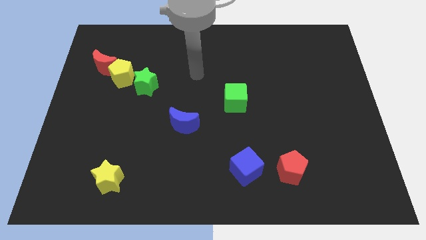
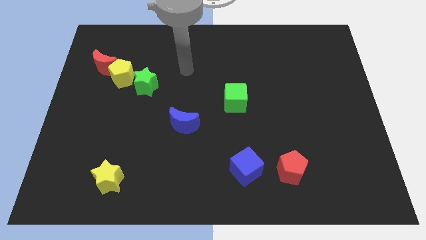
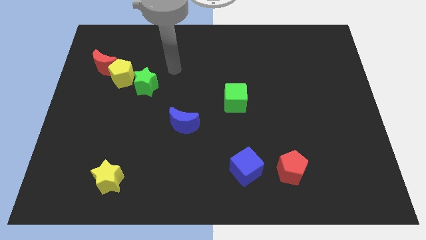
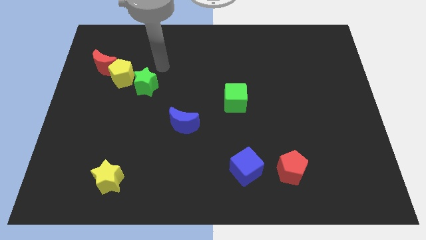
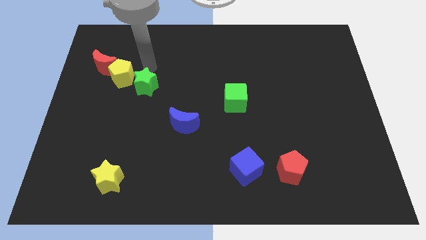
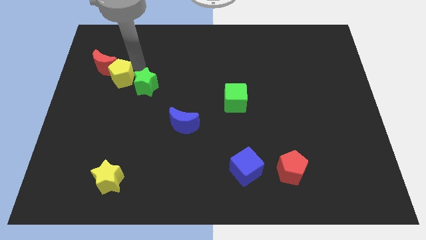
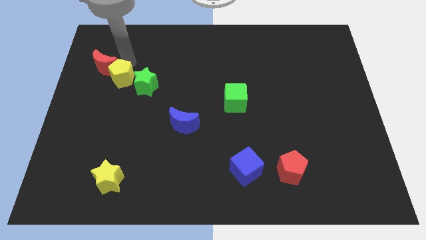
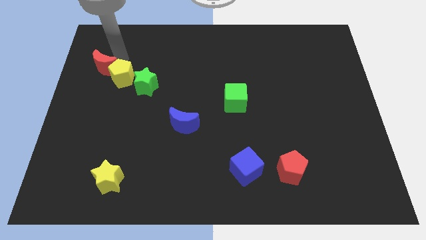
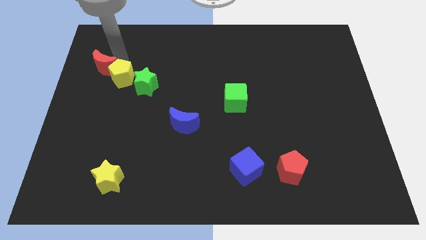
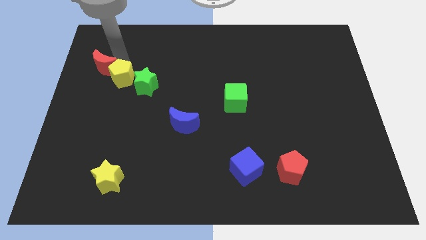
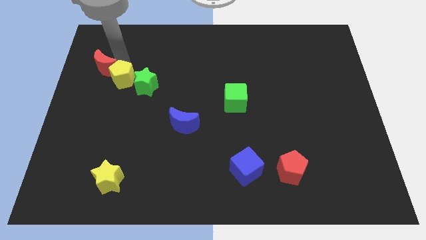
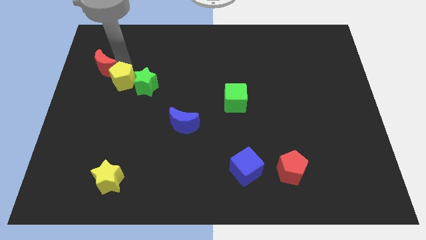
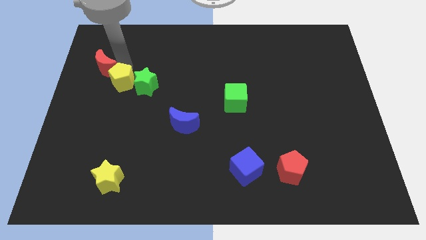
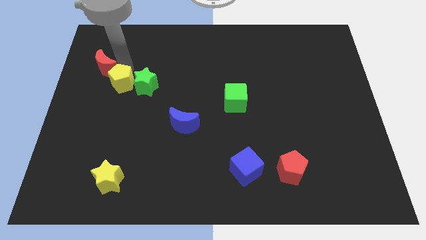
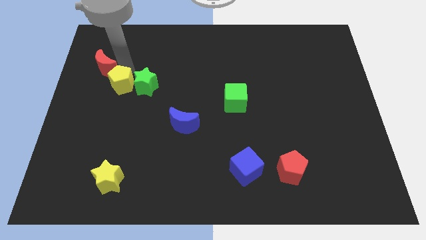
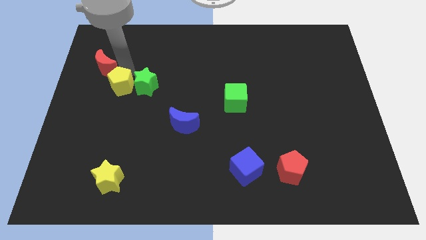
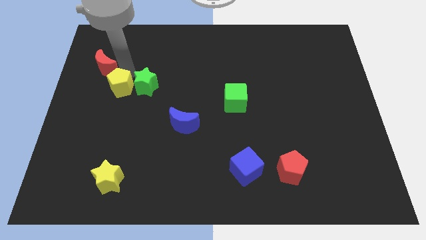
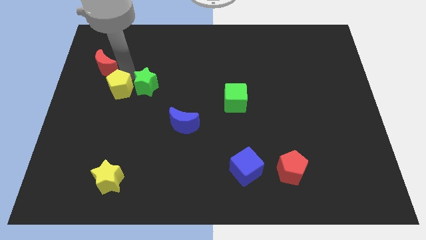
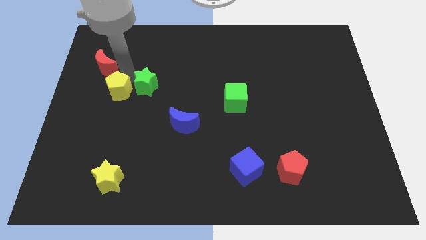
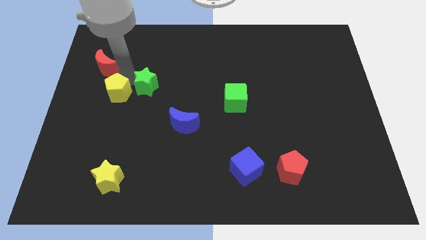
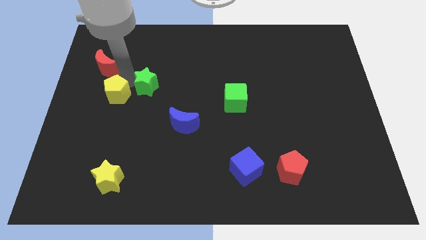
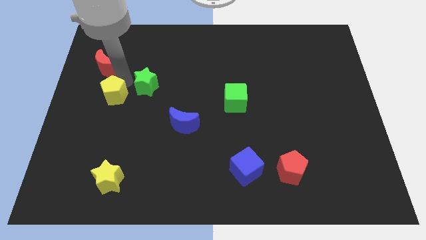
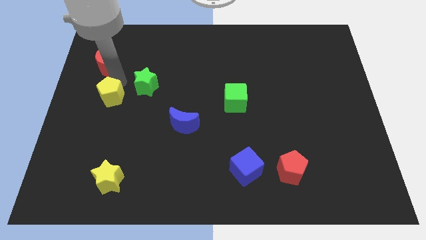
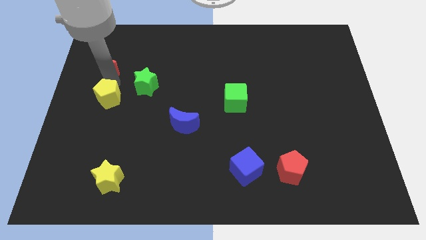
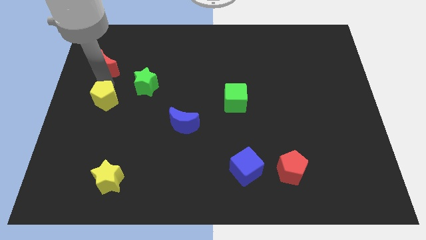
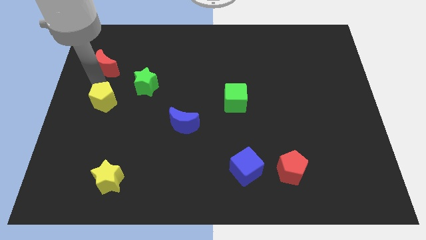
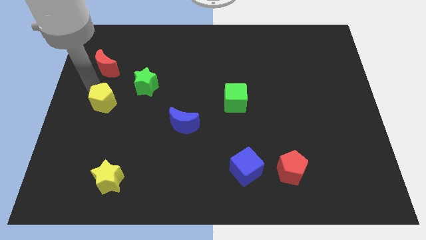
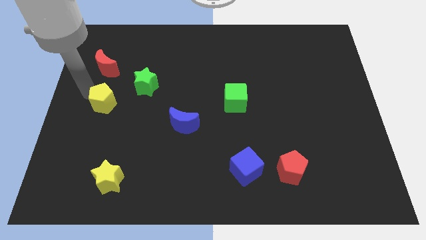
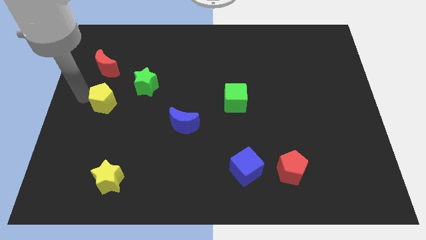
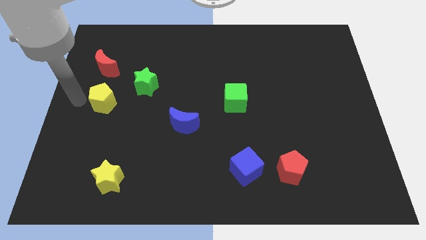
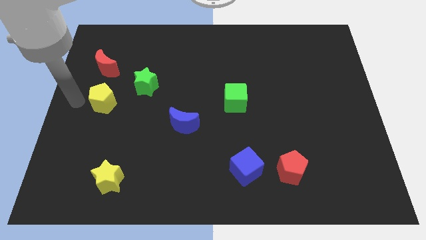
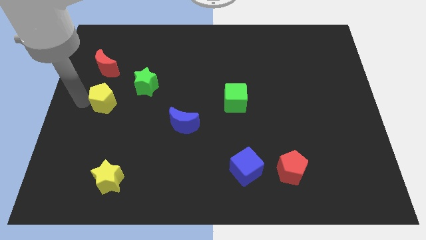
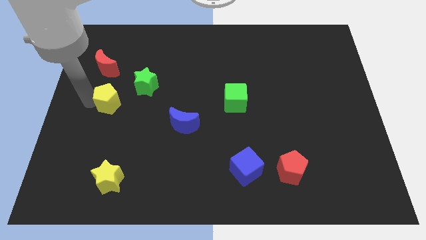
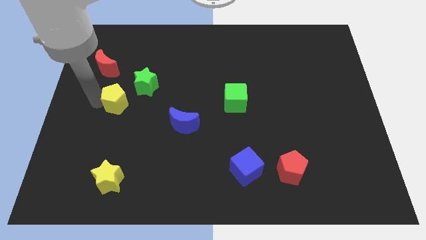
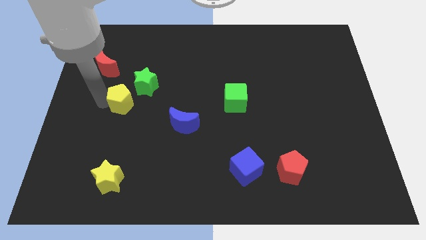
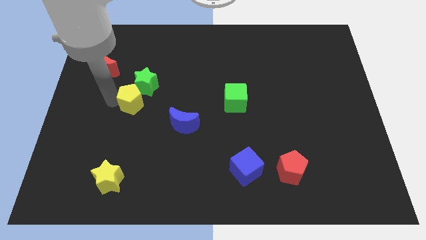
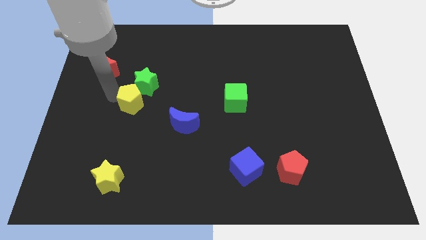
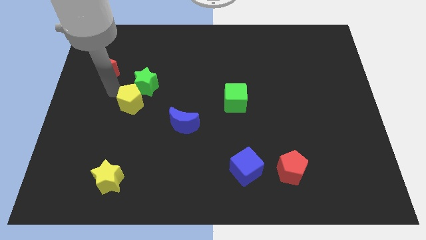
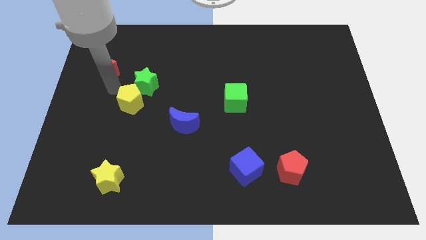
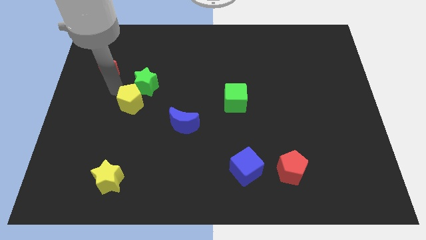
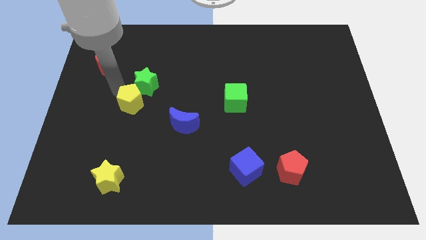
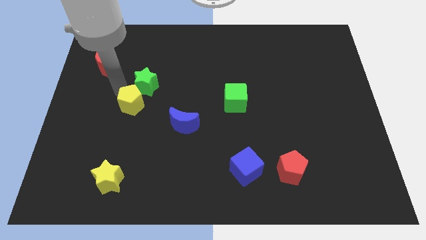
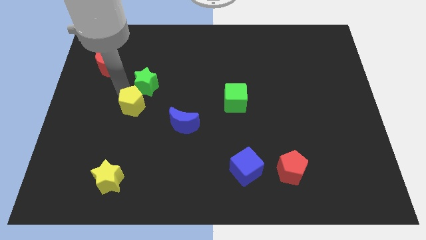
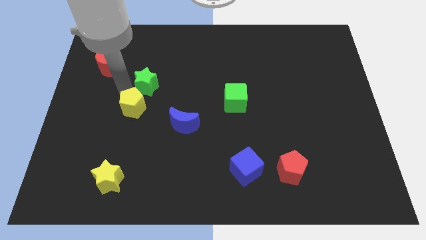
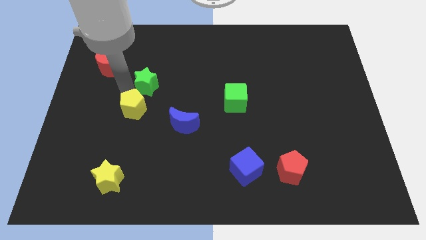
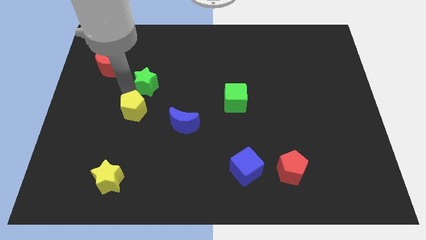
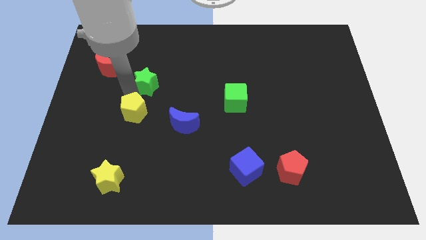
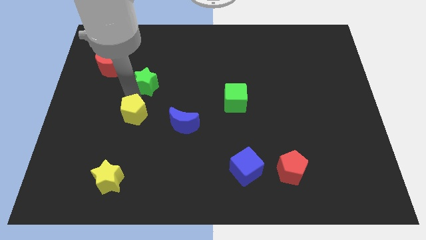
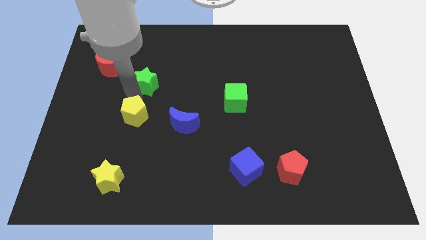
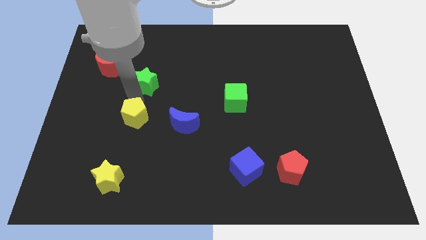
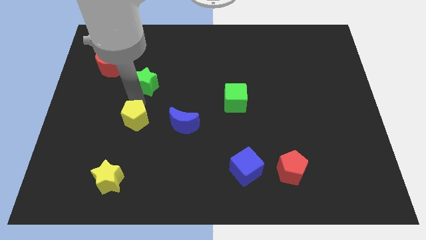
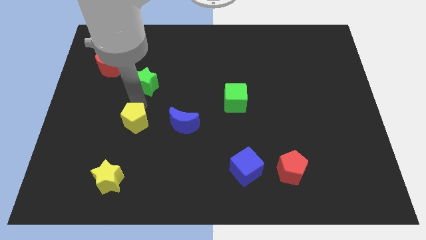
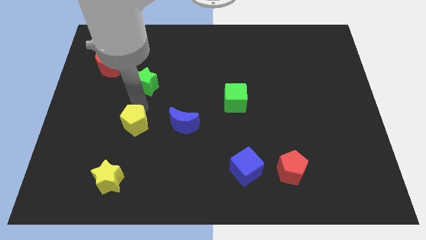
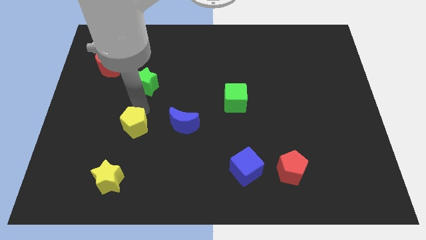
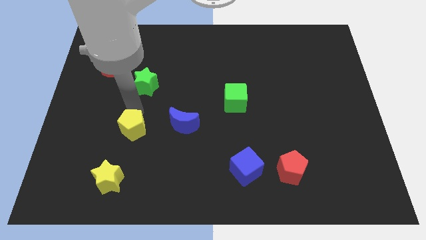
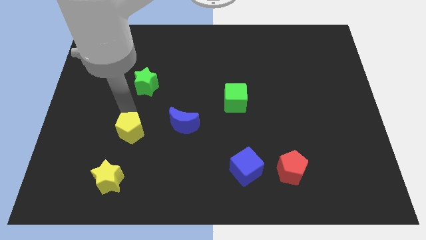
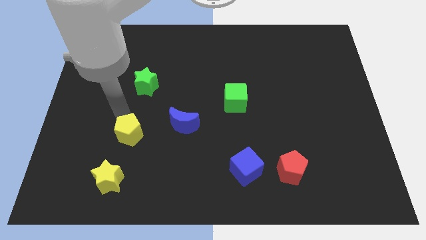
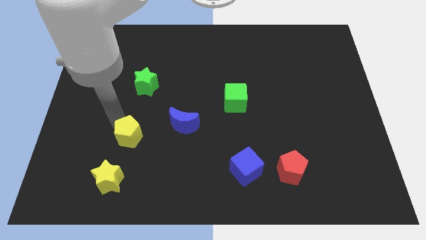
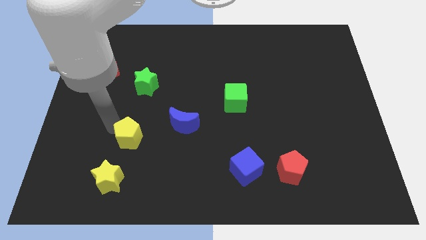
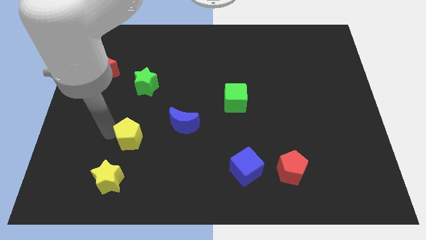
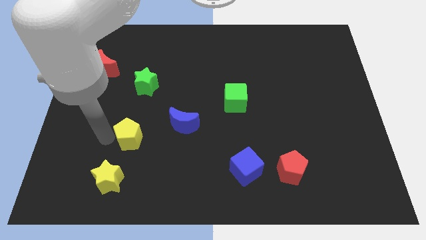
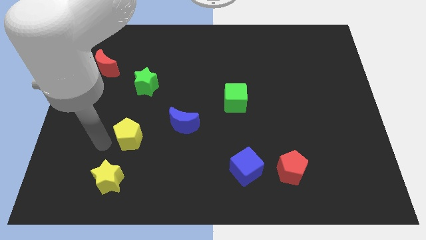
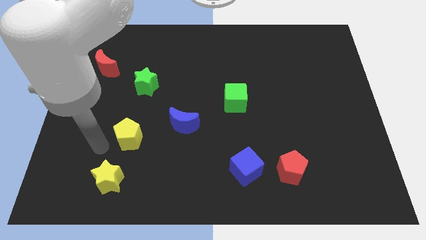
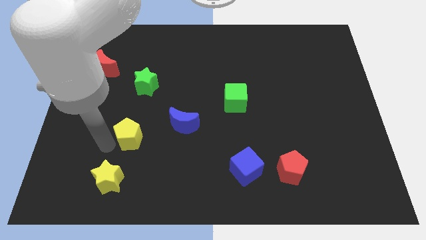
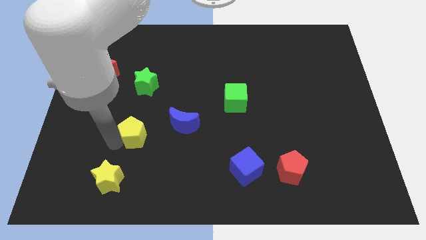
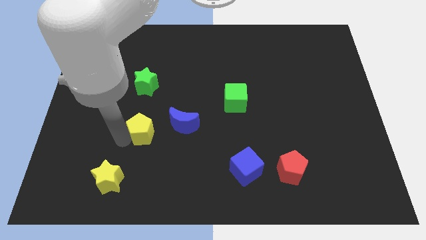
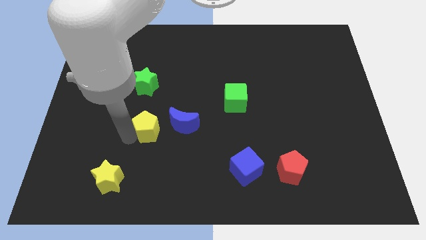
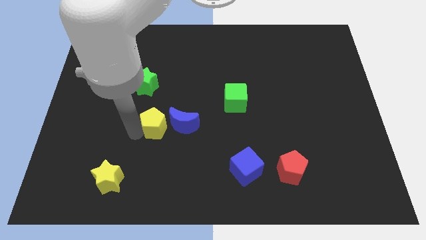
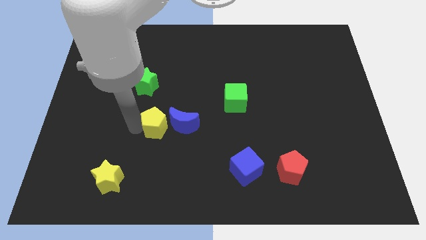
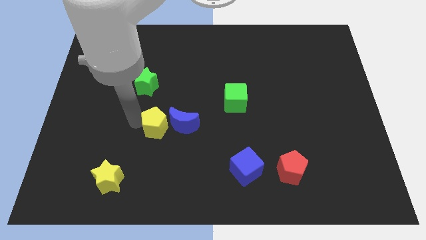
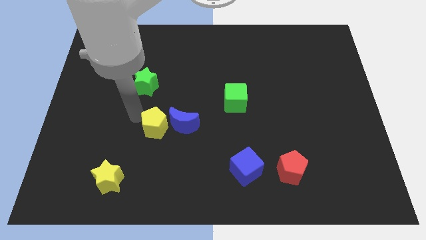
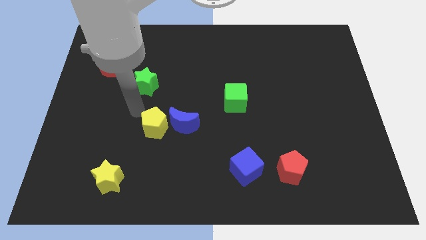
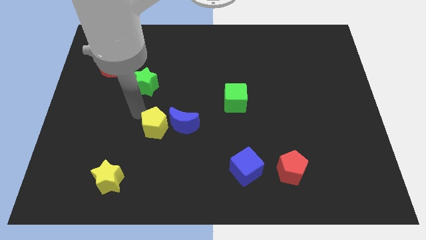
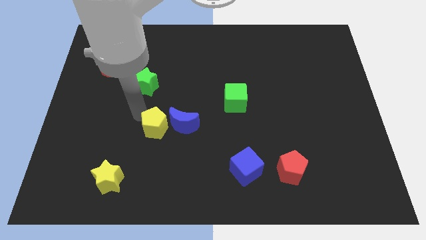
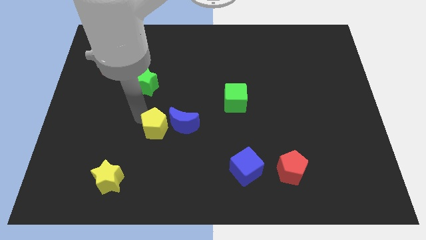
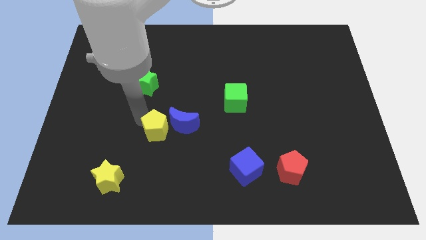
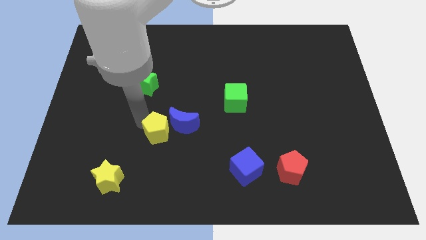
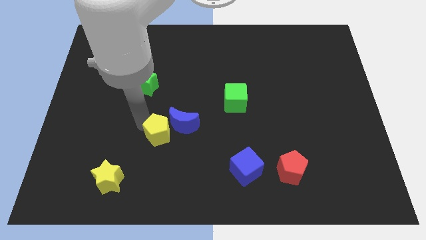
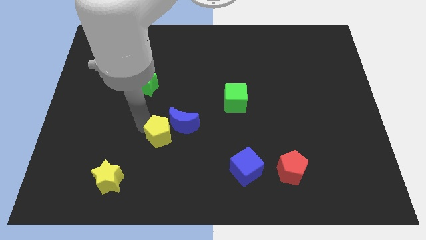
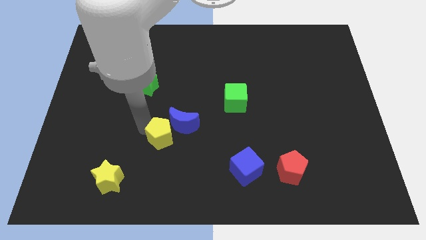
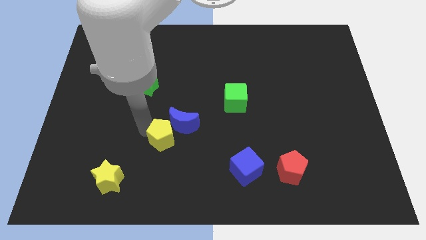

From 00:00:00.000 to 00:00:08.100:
push the yellow pentagon to the bottom side of the blue moon
